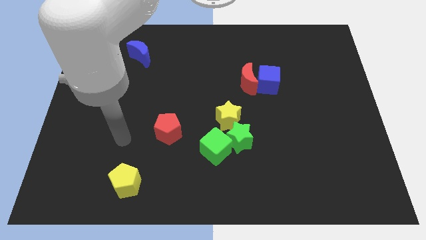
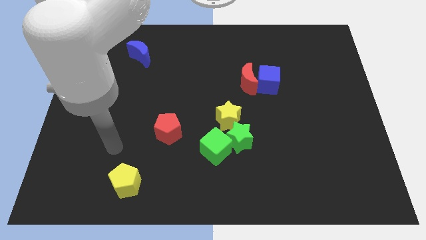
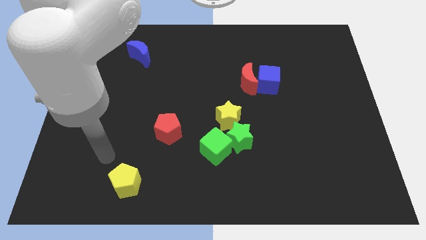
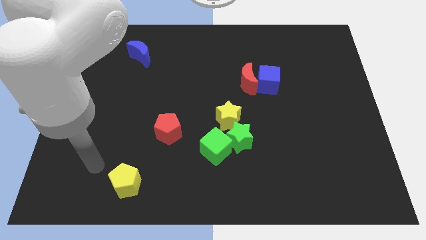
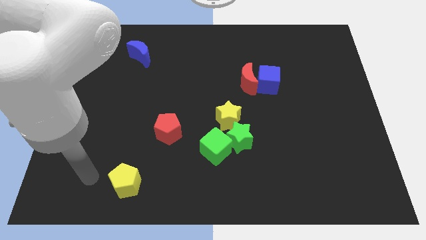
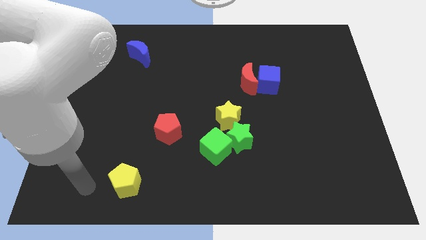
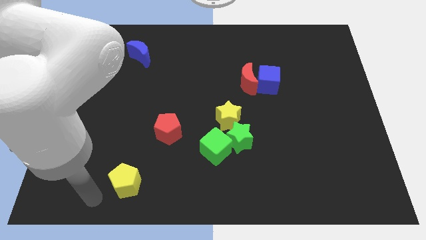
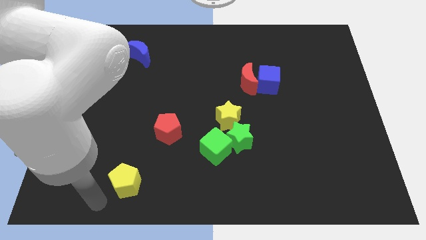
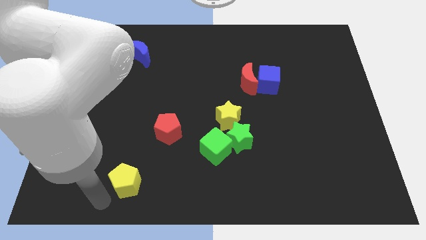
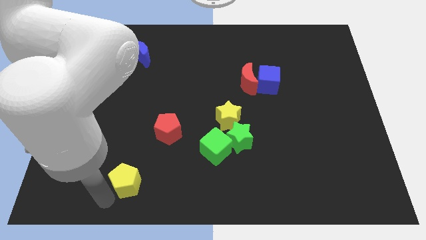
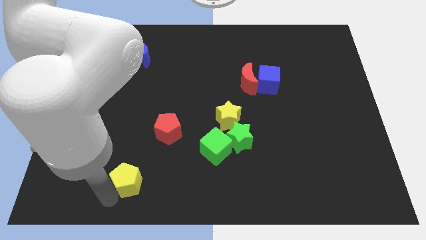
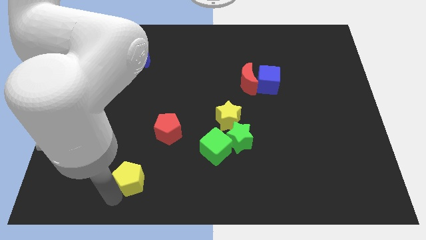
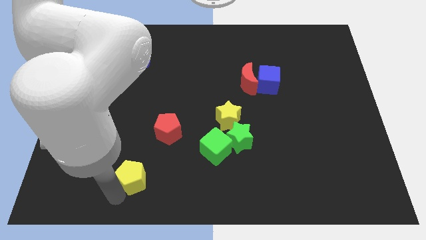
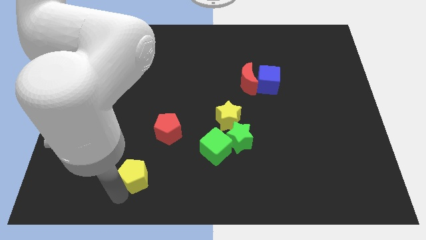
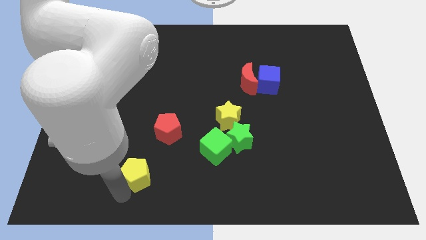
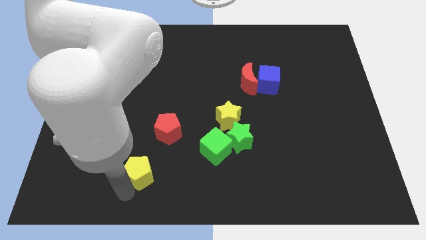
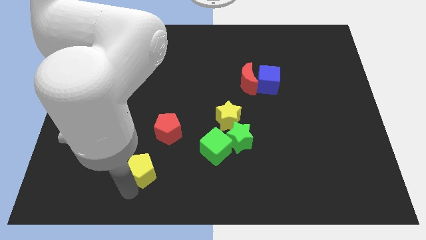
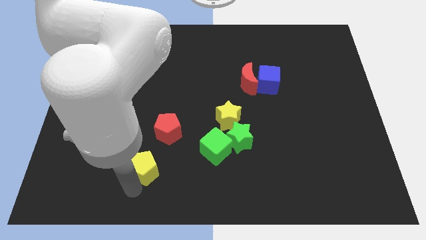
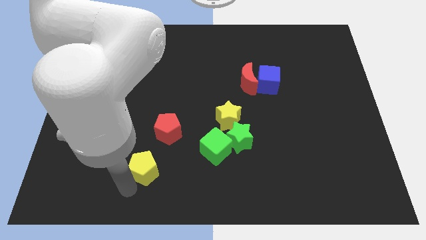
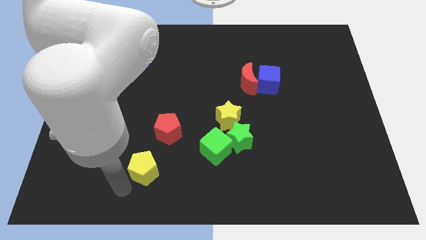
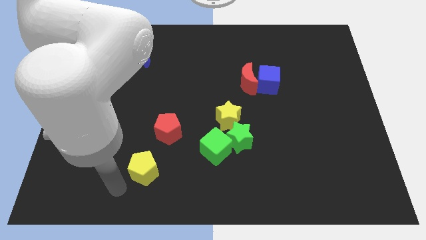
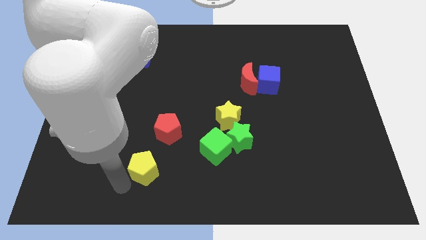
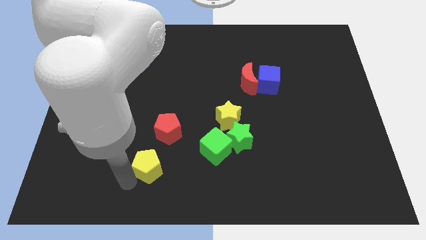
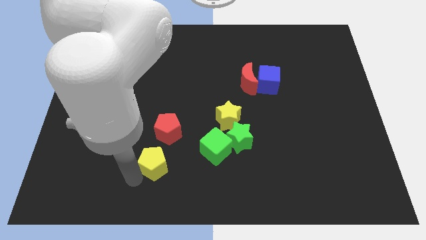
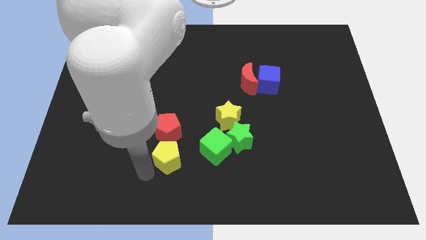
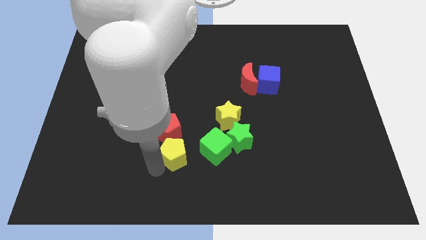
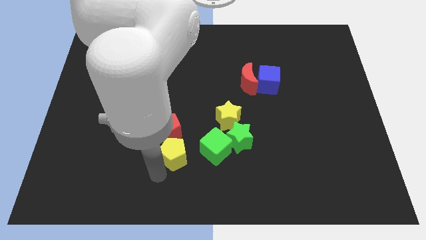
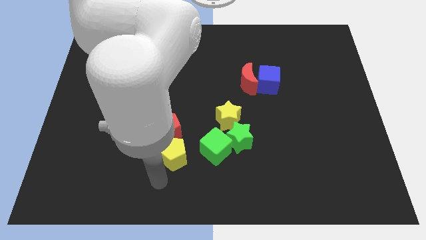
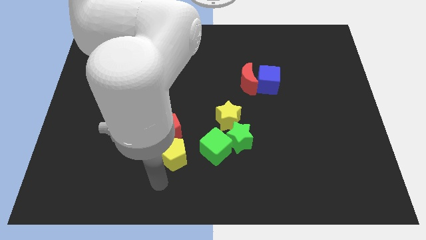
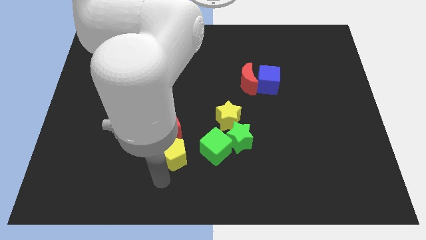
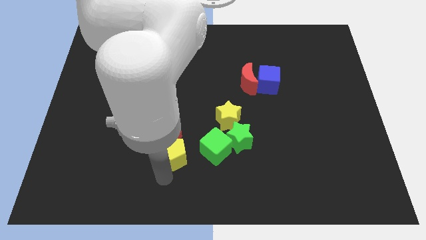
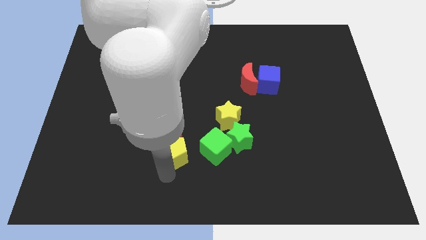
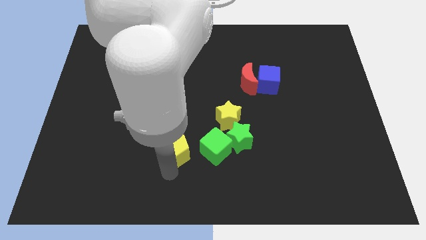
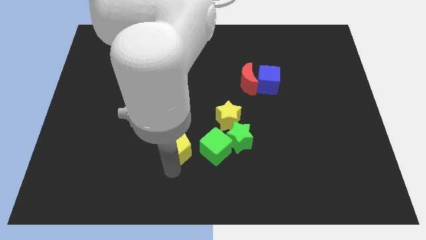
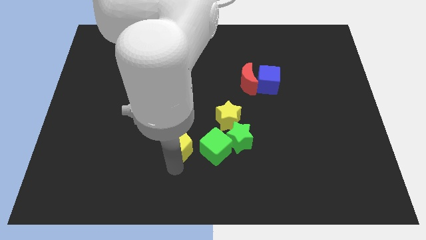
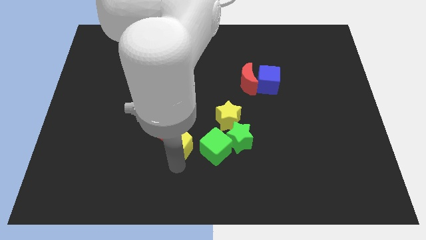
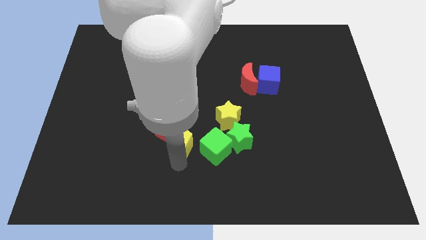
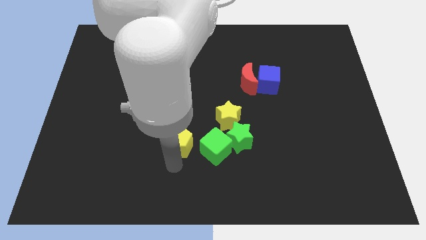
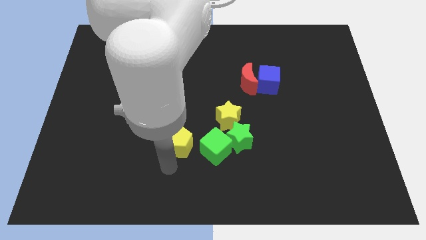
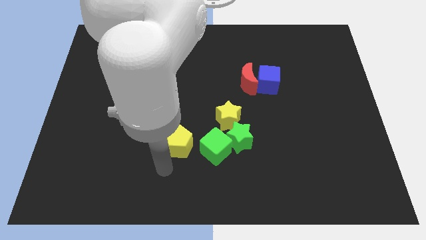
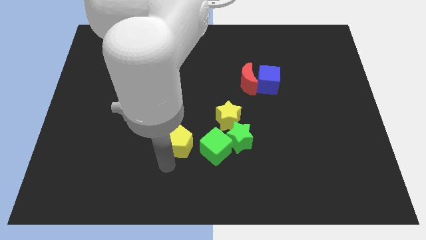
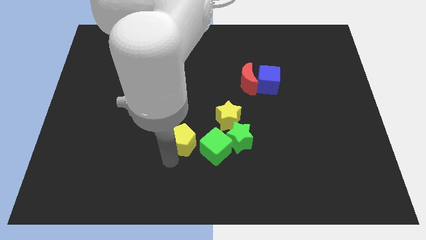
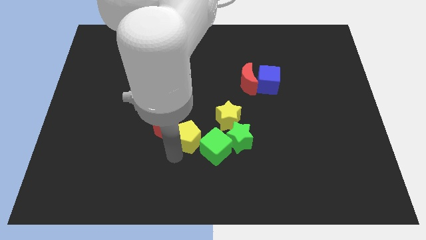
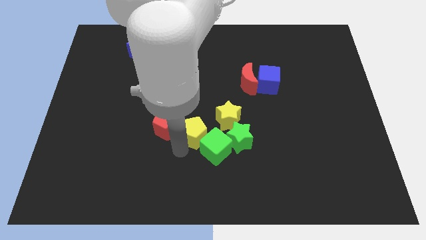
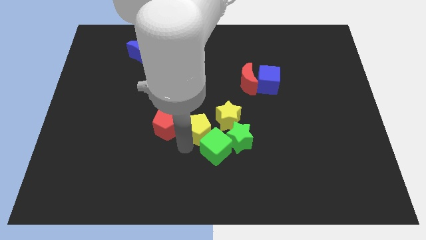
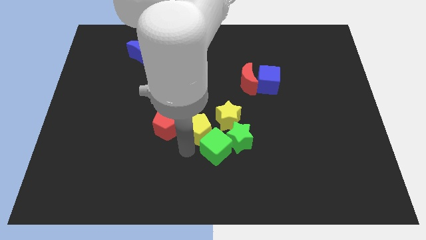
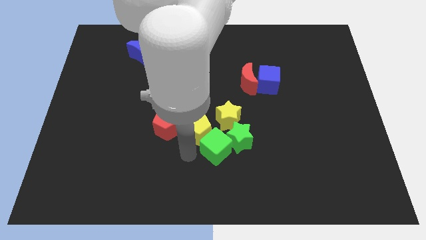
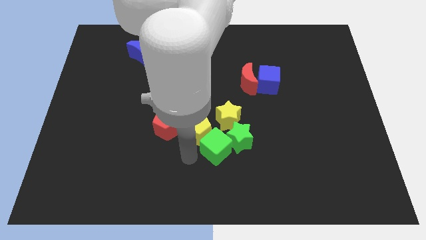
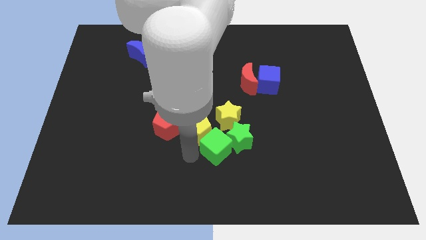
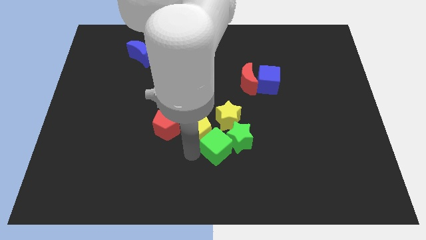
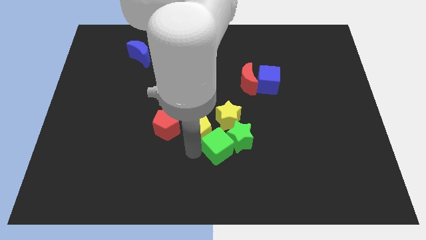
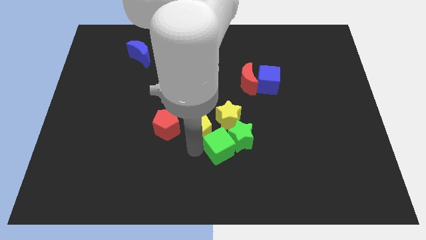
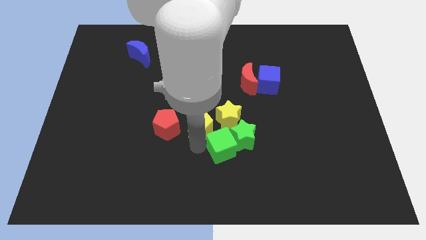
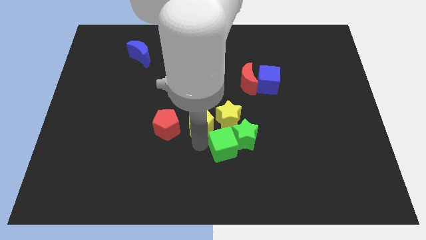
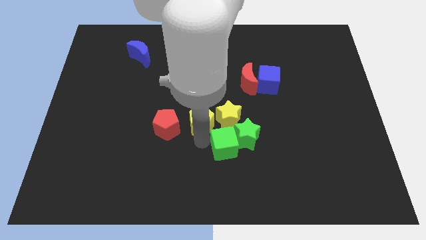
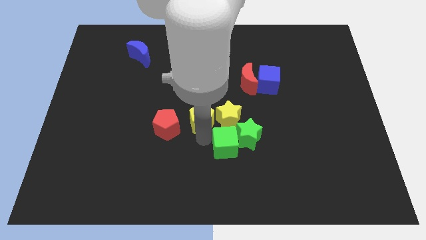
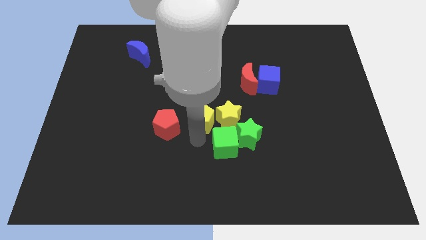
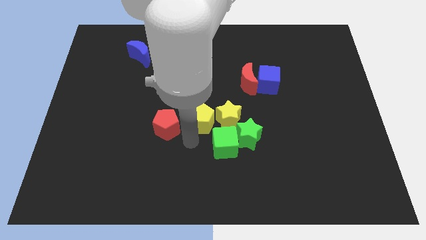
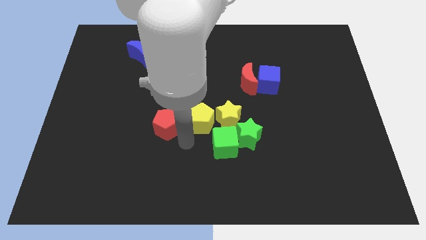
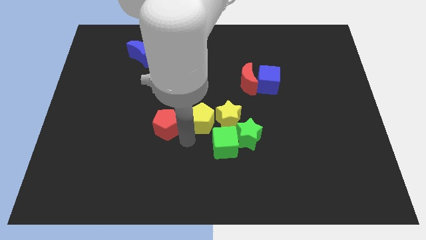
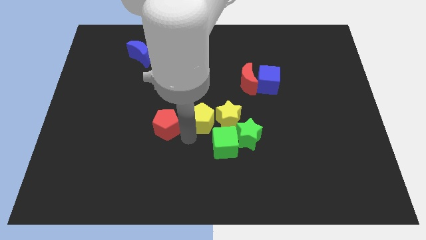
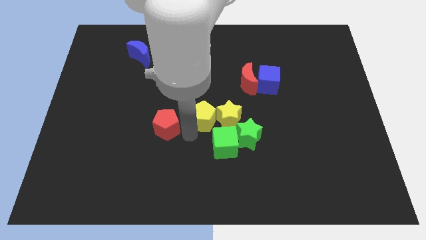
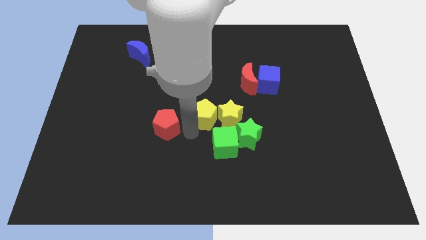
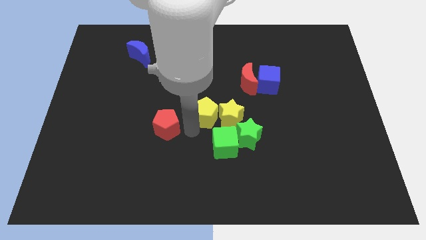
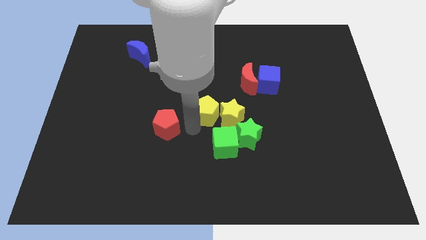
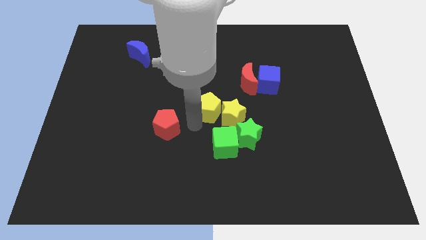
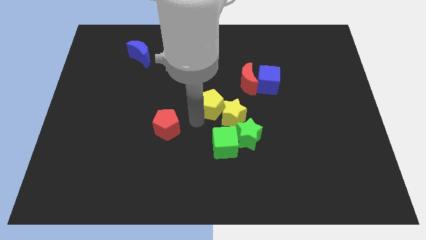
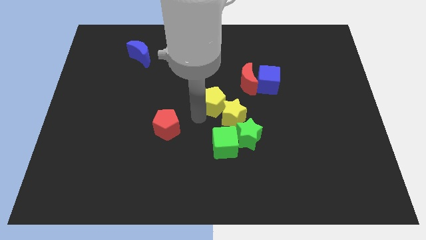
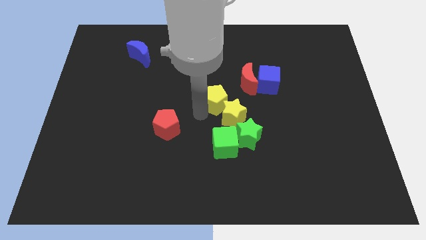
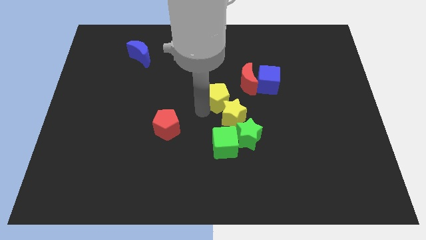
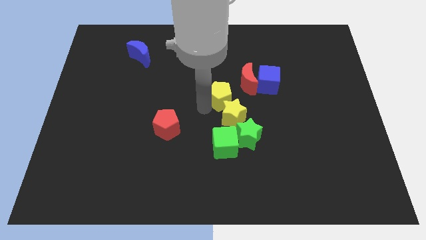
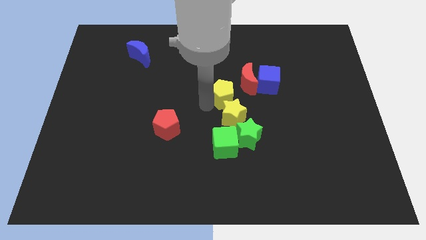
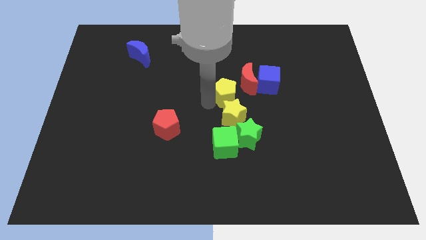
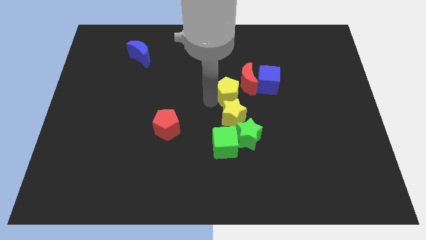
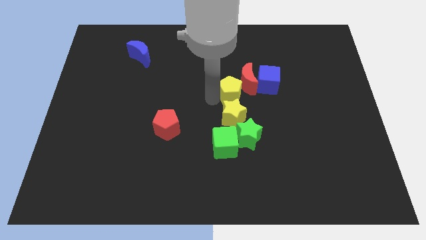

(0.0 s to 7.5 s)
move the yellow pentagon diagonally up and to the right of the yellow star

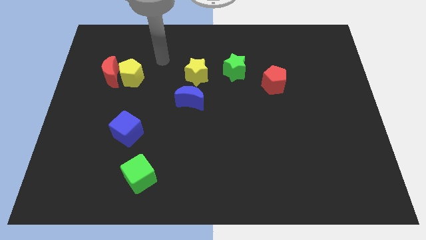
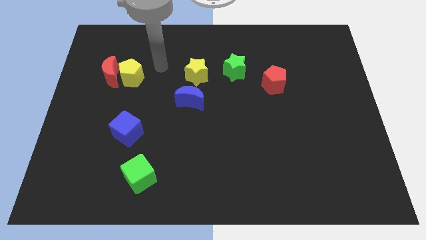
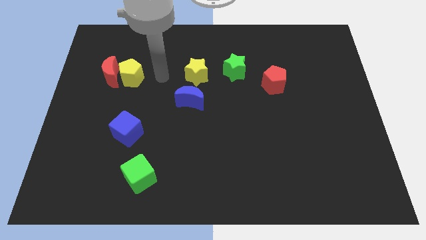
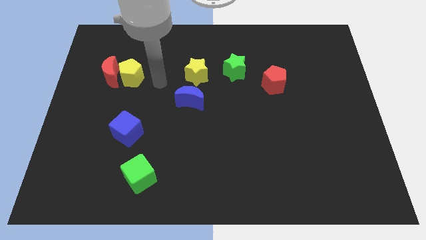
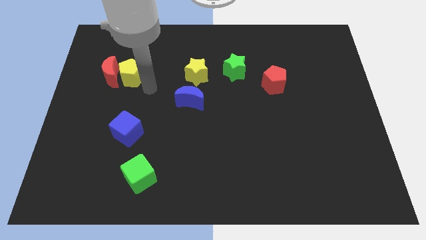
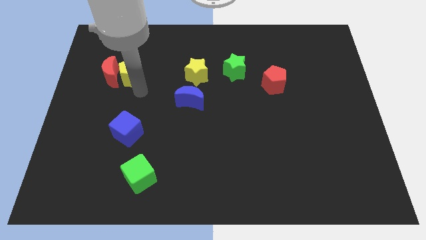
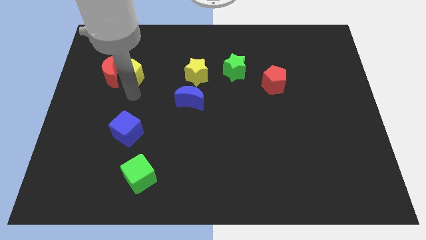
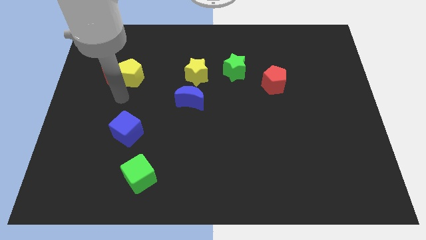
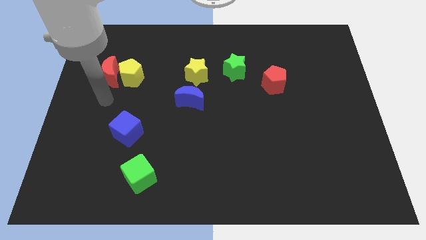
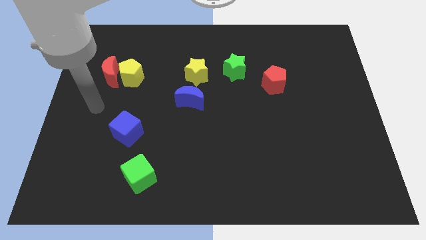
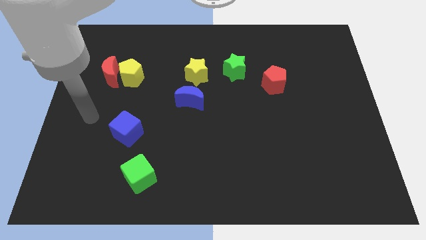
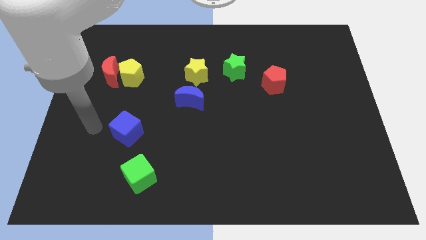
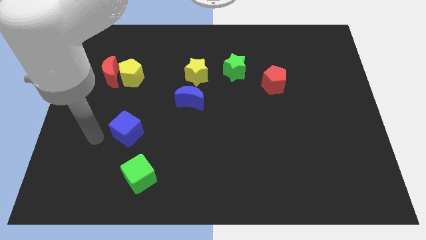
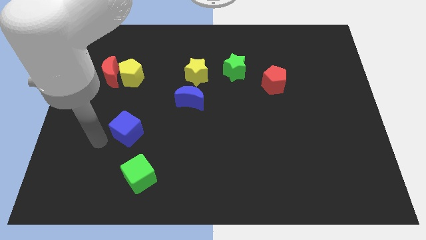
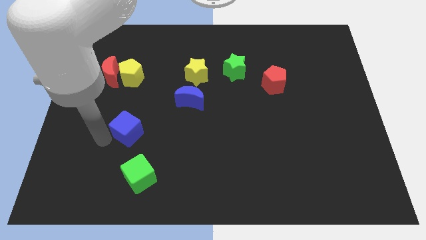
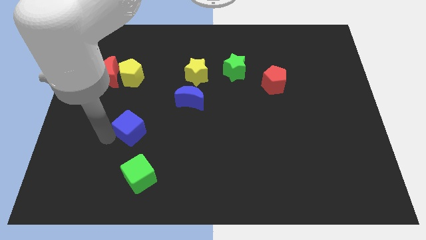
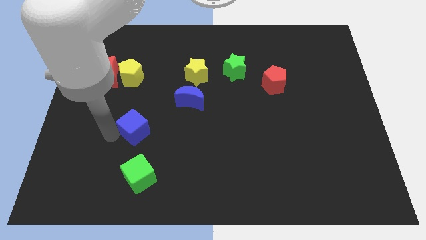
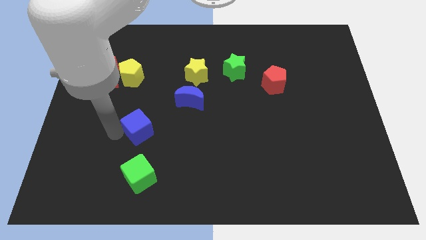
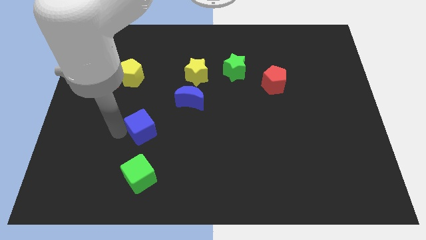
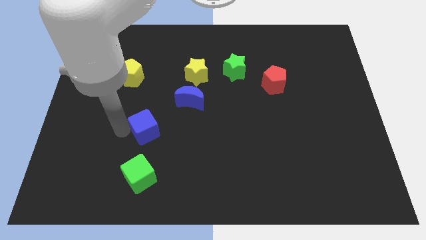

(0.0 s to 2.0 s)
push the blue cube diagonally down and to the left of the blue moon
